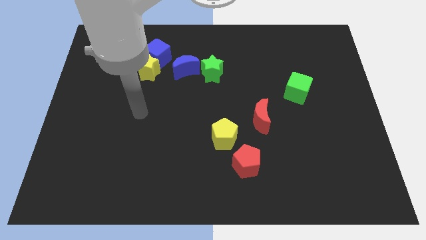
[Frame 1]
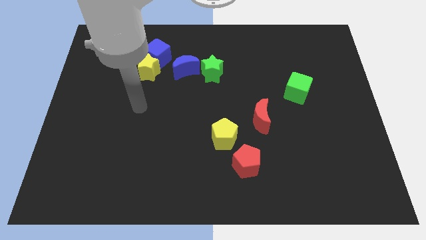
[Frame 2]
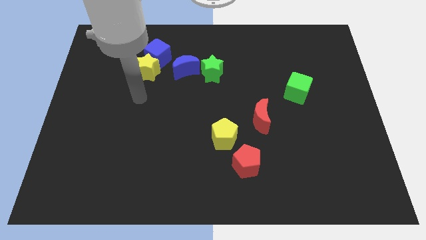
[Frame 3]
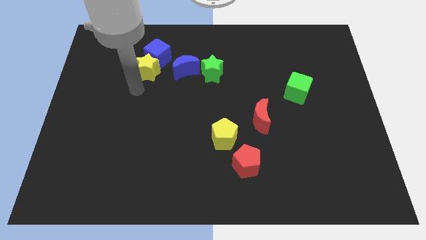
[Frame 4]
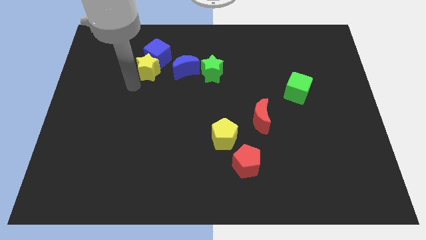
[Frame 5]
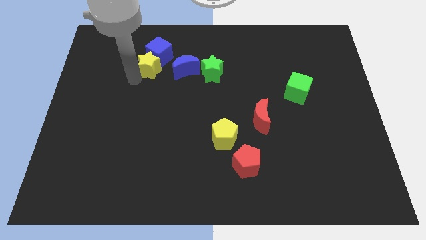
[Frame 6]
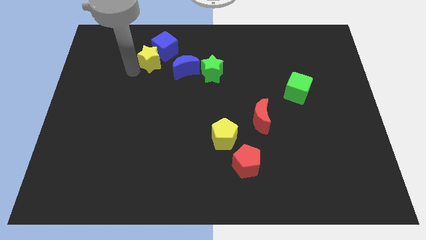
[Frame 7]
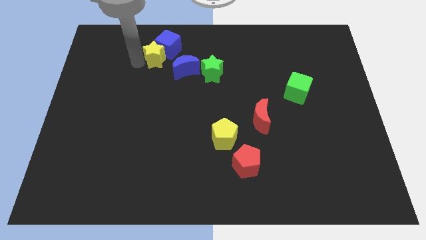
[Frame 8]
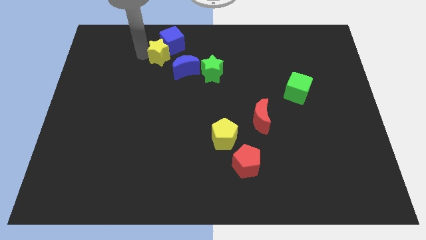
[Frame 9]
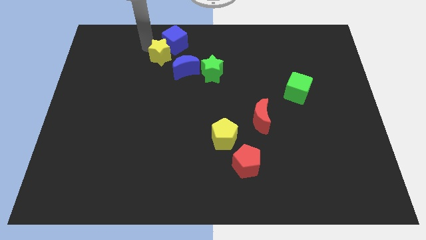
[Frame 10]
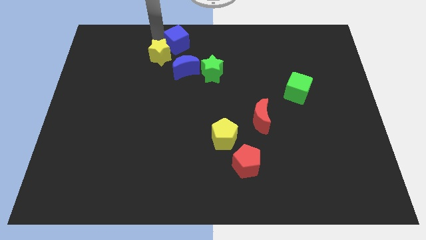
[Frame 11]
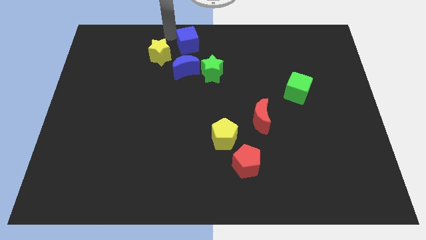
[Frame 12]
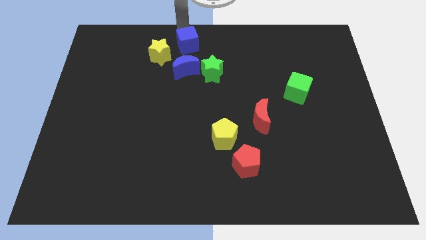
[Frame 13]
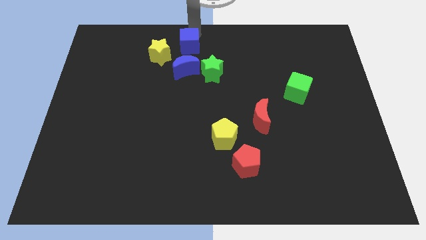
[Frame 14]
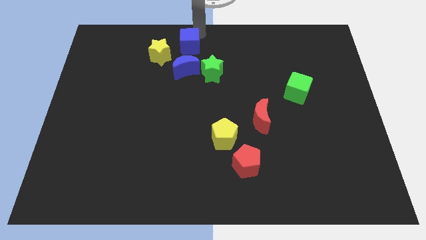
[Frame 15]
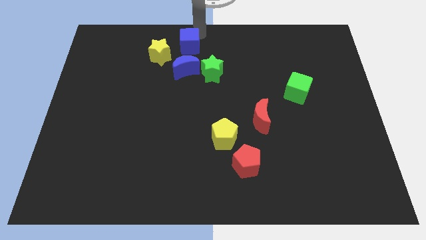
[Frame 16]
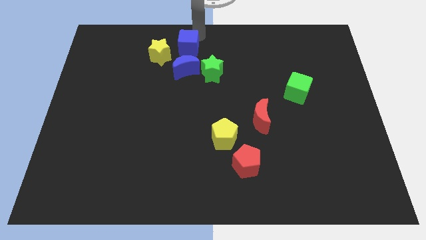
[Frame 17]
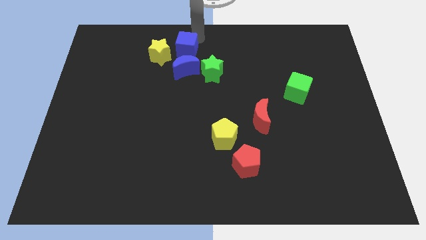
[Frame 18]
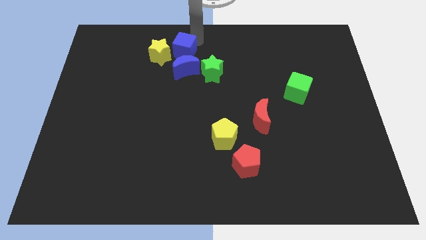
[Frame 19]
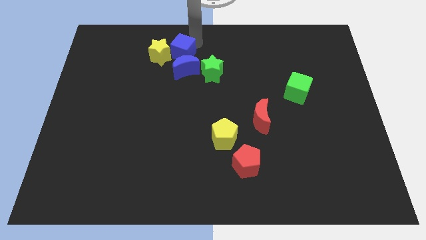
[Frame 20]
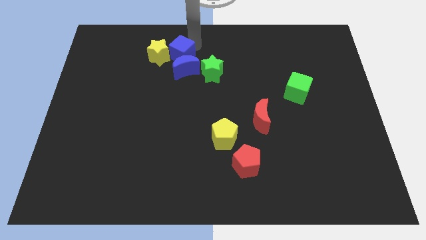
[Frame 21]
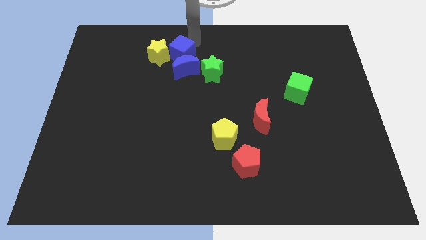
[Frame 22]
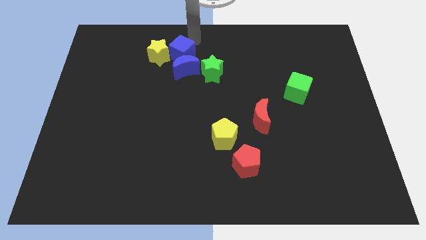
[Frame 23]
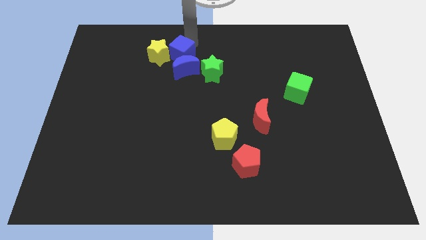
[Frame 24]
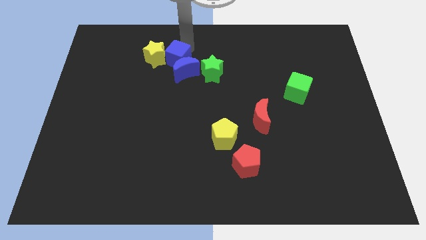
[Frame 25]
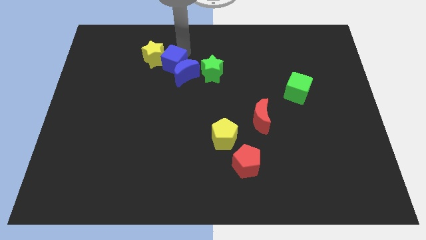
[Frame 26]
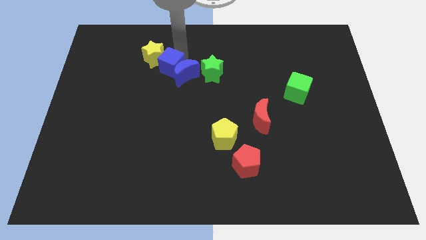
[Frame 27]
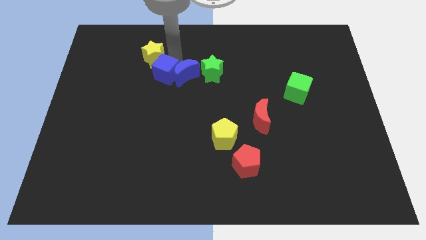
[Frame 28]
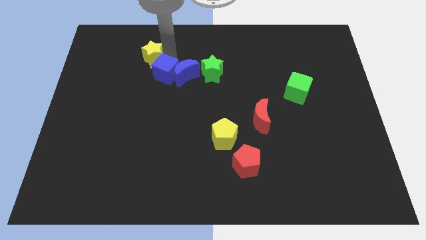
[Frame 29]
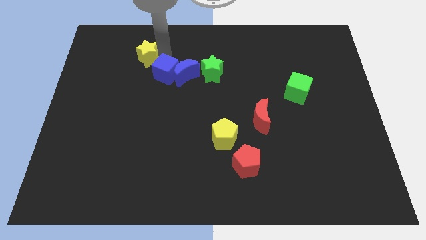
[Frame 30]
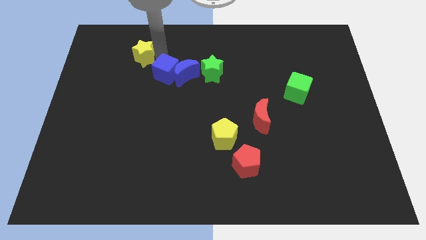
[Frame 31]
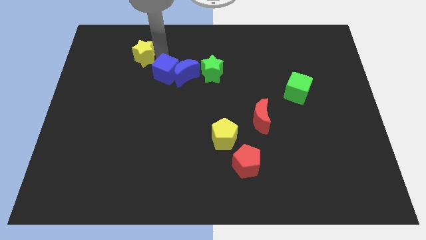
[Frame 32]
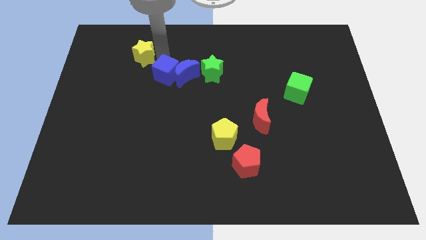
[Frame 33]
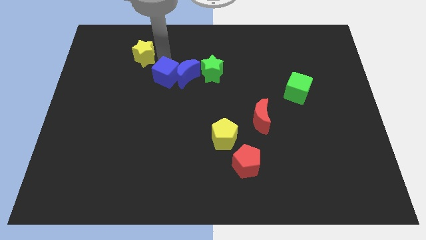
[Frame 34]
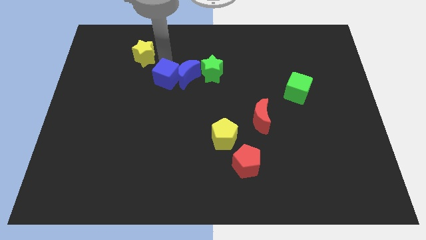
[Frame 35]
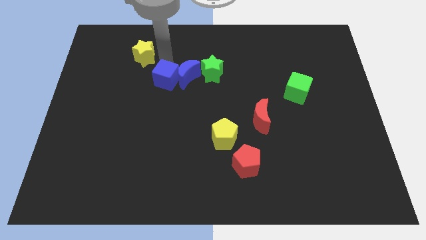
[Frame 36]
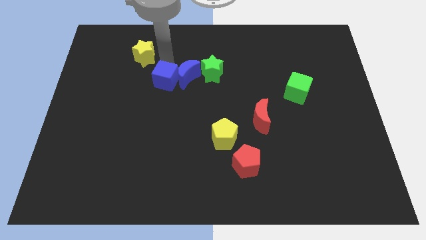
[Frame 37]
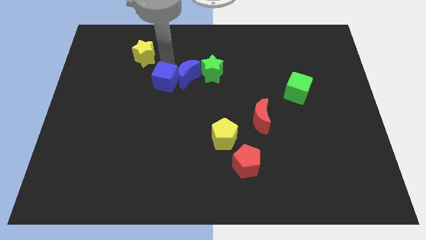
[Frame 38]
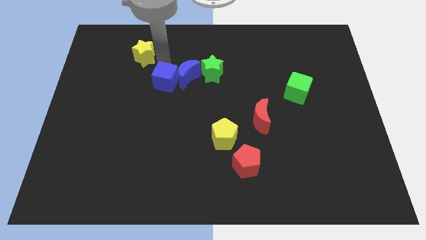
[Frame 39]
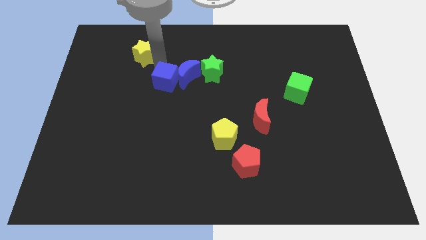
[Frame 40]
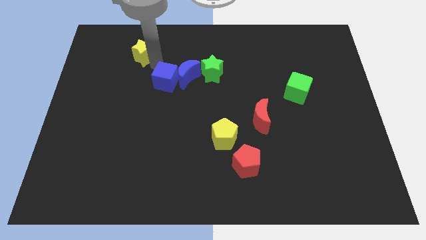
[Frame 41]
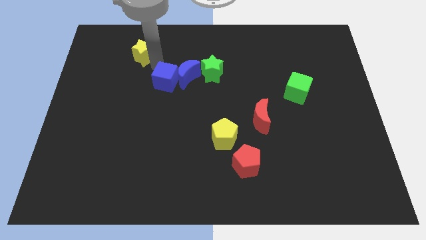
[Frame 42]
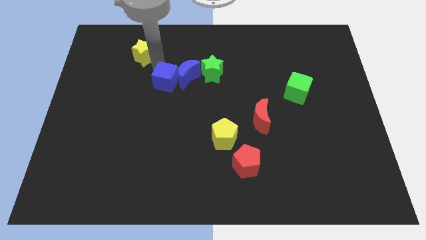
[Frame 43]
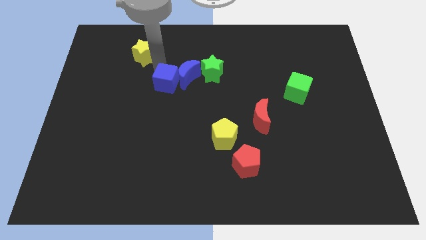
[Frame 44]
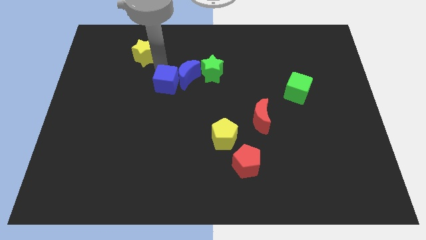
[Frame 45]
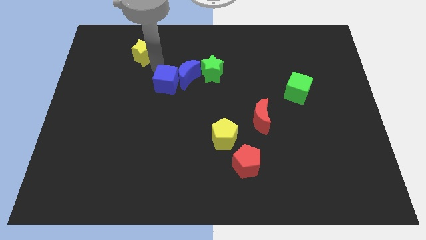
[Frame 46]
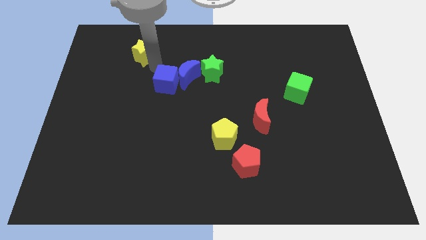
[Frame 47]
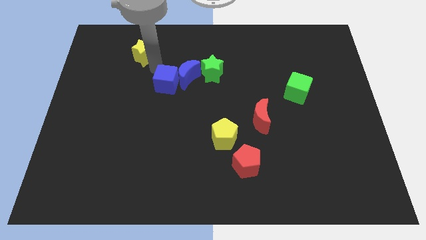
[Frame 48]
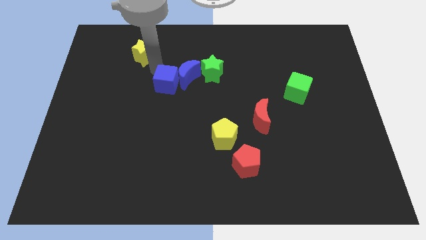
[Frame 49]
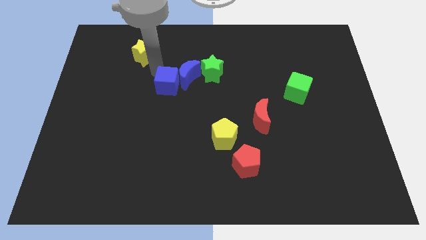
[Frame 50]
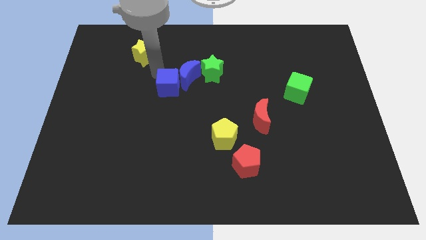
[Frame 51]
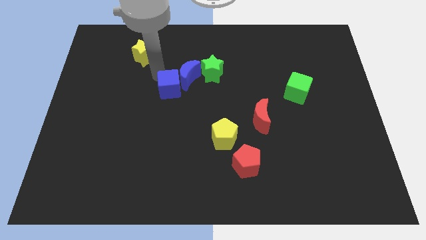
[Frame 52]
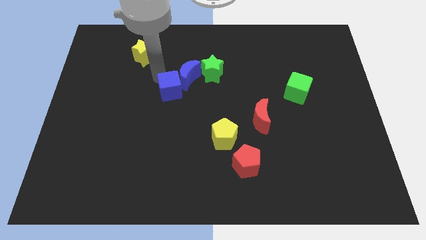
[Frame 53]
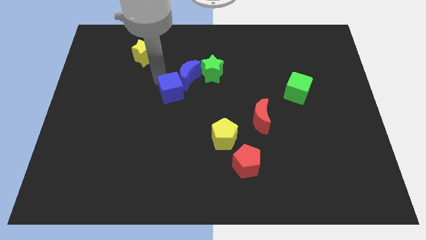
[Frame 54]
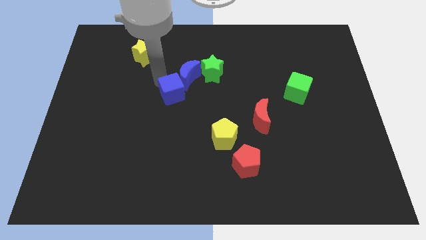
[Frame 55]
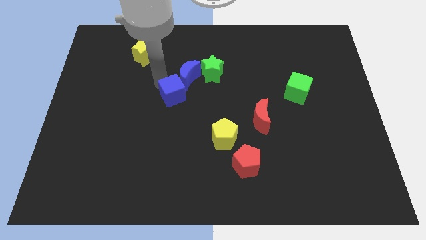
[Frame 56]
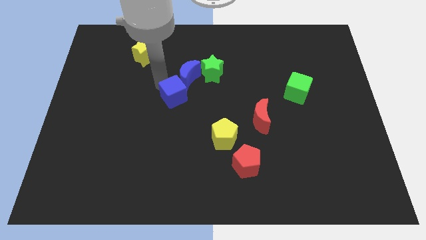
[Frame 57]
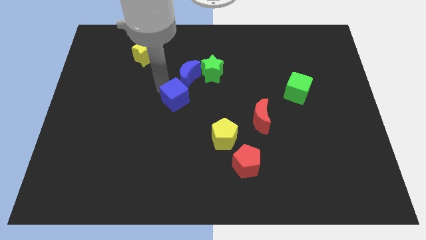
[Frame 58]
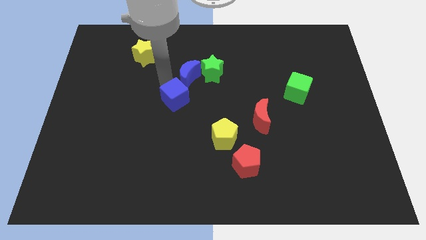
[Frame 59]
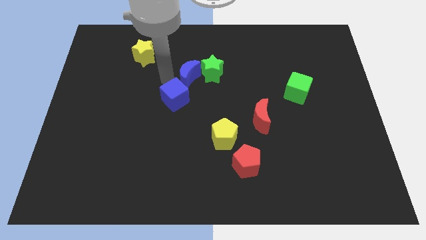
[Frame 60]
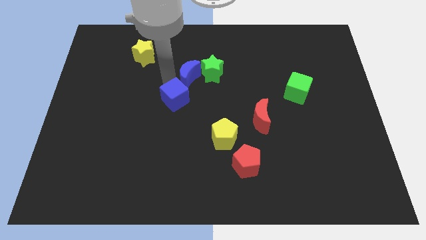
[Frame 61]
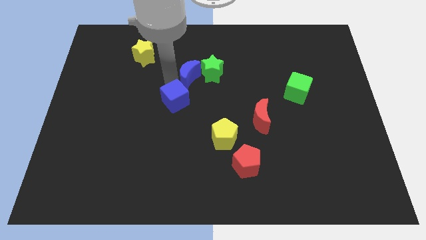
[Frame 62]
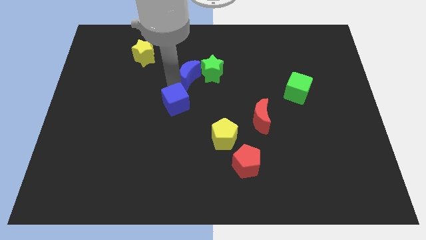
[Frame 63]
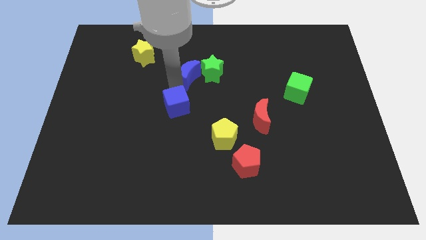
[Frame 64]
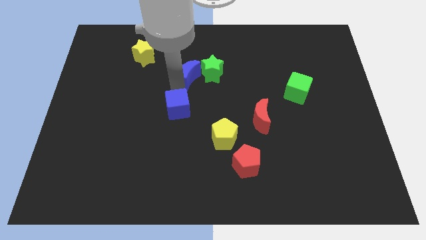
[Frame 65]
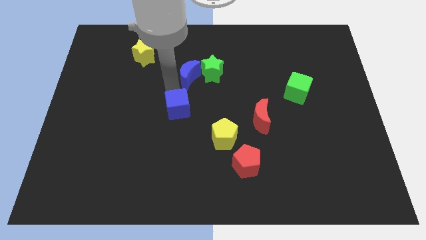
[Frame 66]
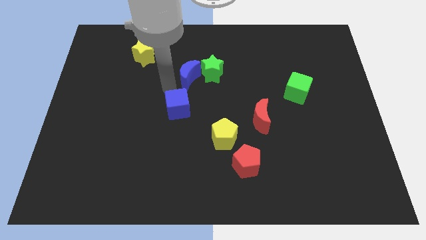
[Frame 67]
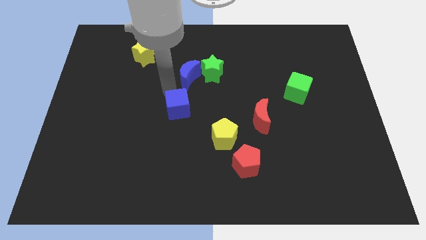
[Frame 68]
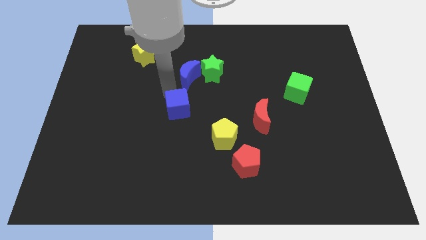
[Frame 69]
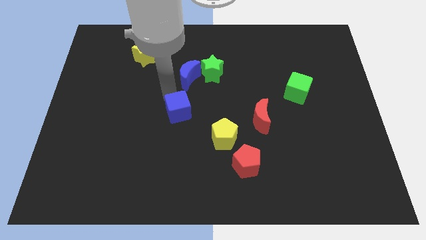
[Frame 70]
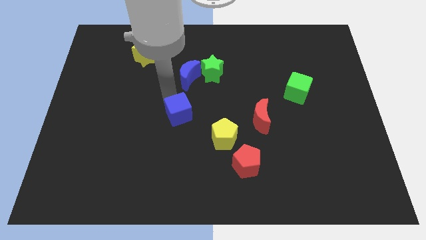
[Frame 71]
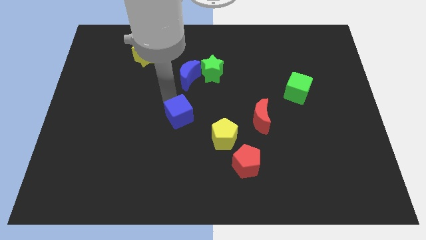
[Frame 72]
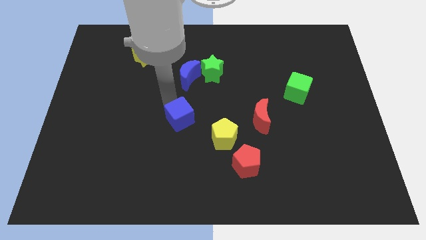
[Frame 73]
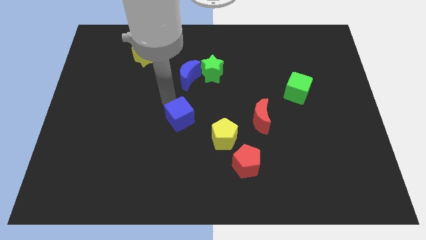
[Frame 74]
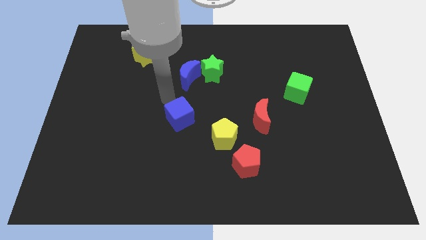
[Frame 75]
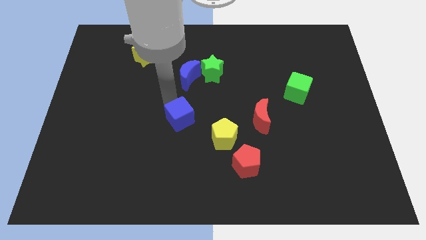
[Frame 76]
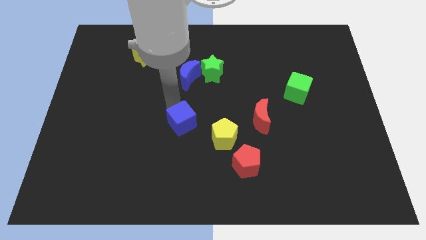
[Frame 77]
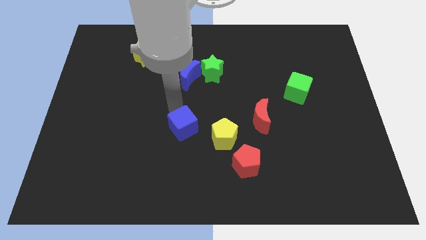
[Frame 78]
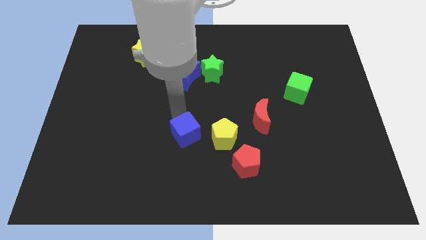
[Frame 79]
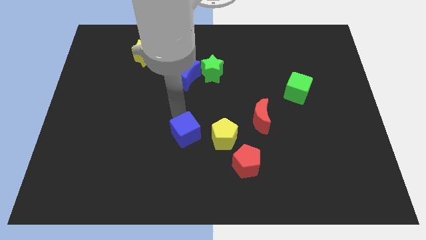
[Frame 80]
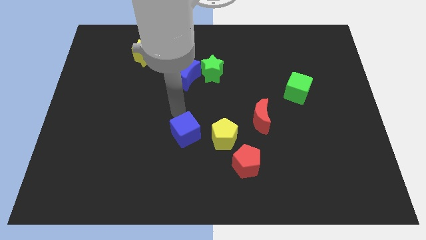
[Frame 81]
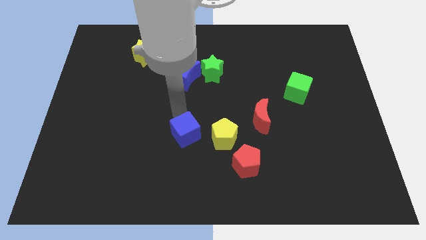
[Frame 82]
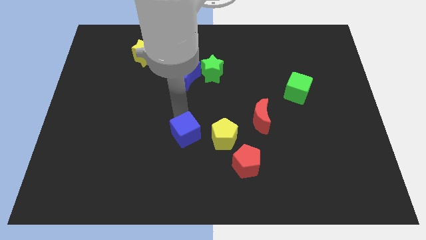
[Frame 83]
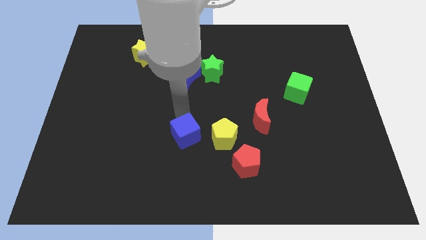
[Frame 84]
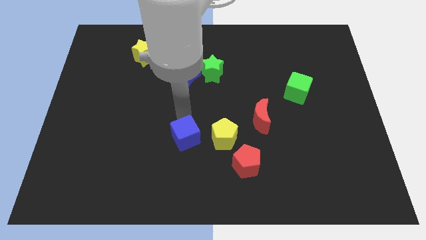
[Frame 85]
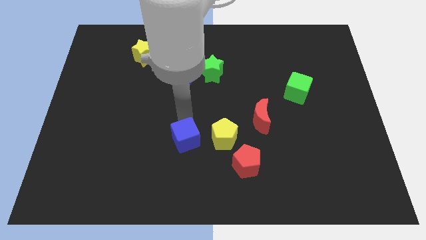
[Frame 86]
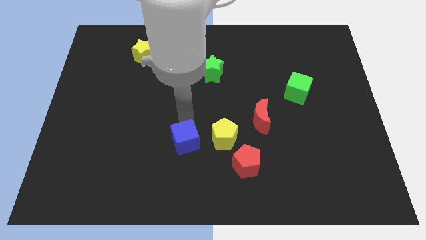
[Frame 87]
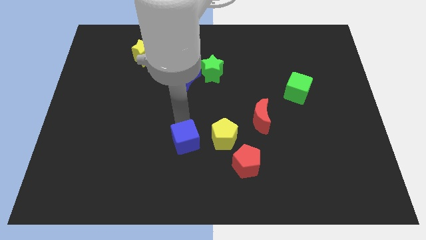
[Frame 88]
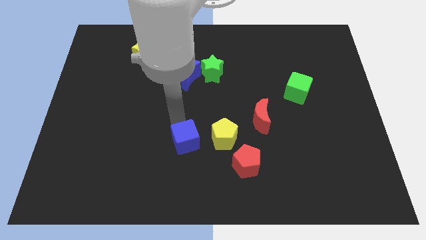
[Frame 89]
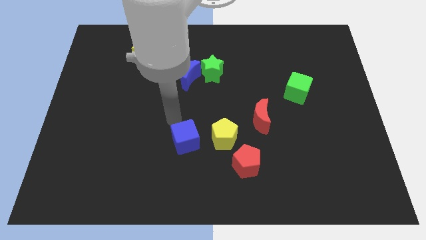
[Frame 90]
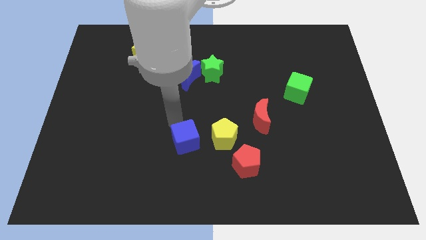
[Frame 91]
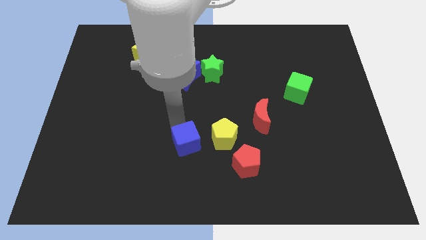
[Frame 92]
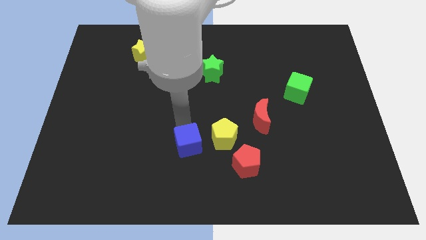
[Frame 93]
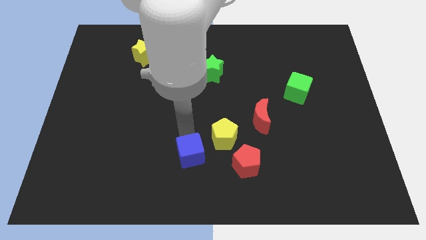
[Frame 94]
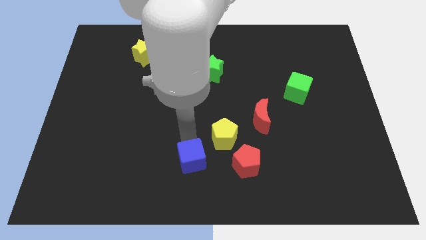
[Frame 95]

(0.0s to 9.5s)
move the blue cube to the bottom side
